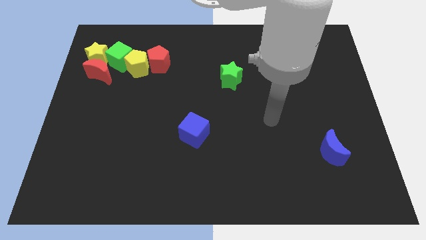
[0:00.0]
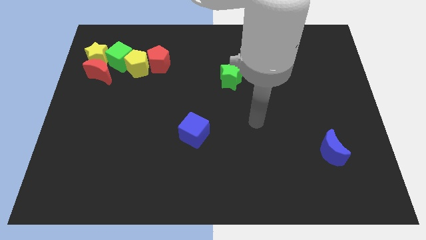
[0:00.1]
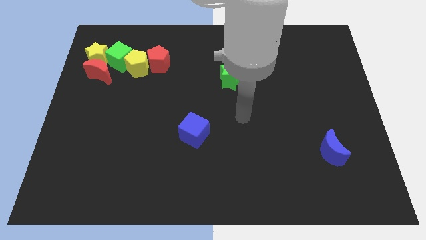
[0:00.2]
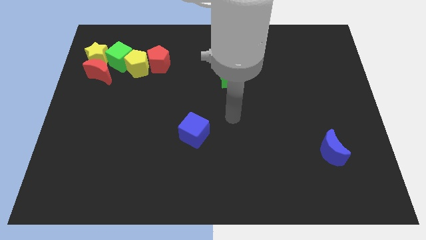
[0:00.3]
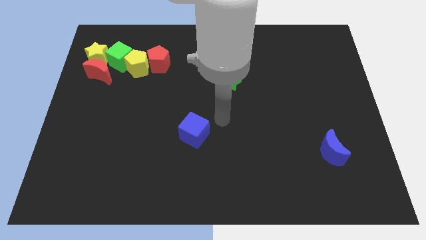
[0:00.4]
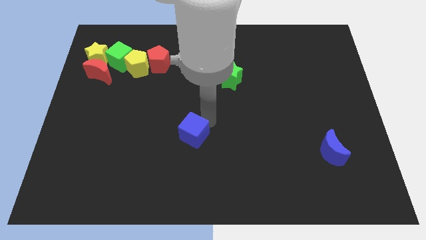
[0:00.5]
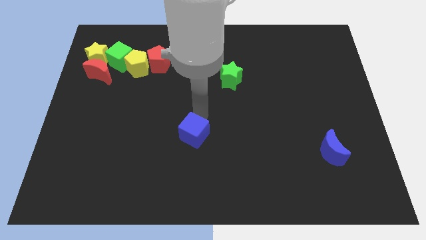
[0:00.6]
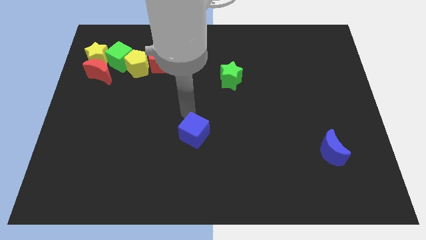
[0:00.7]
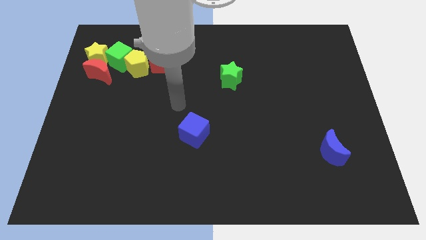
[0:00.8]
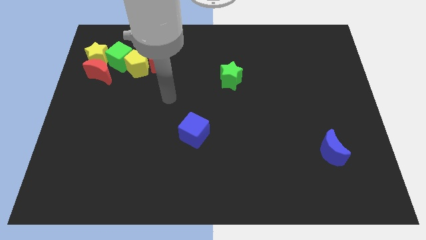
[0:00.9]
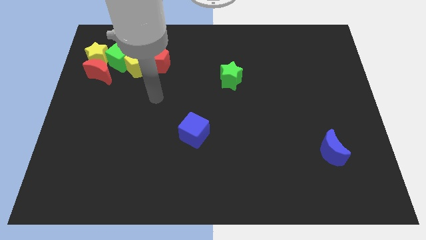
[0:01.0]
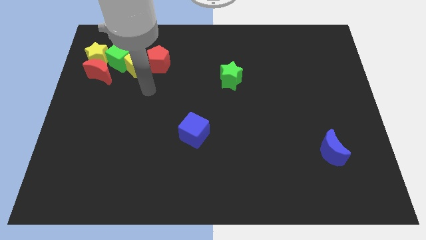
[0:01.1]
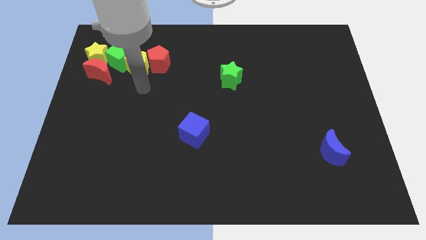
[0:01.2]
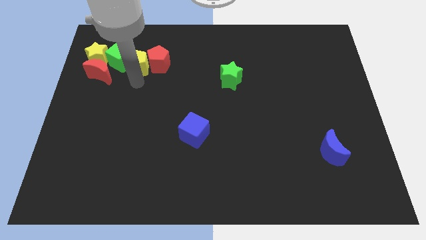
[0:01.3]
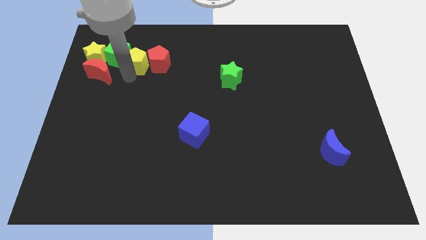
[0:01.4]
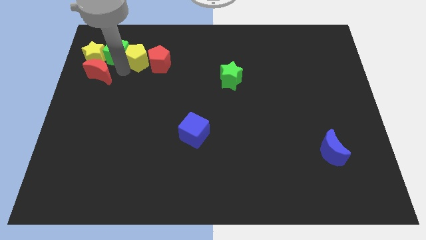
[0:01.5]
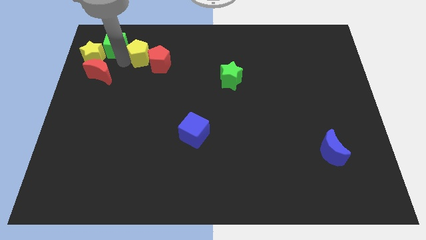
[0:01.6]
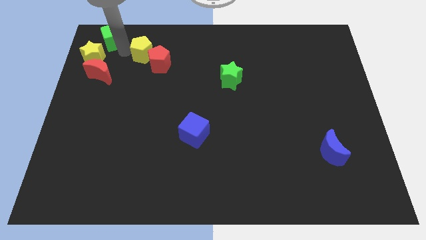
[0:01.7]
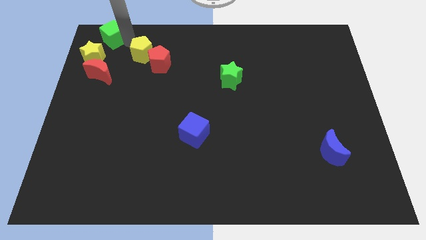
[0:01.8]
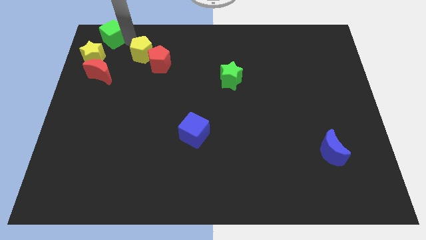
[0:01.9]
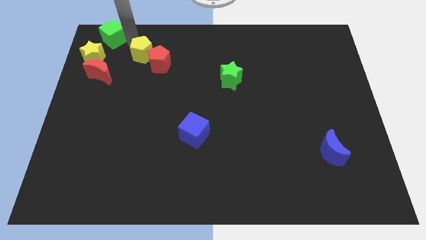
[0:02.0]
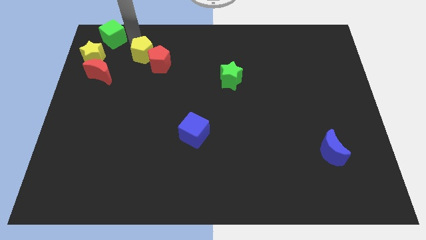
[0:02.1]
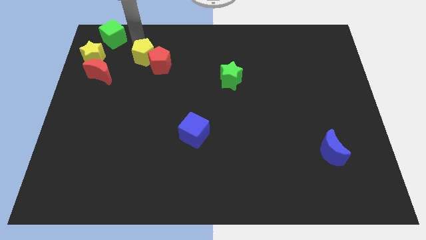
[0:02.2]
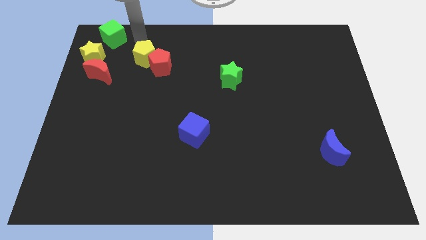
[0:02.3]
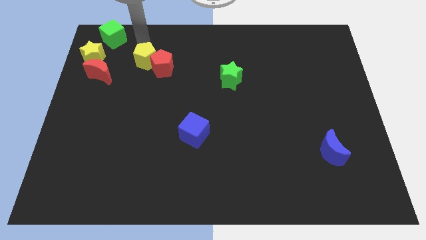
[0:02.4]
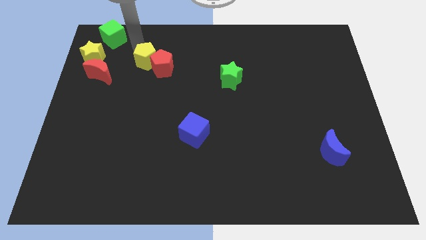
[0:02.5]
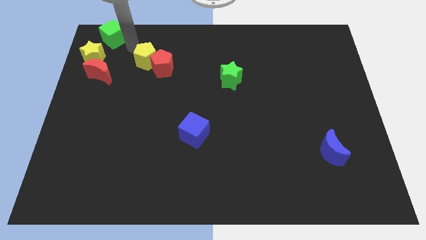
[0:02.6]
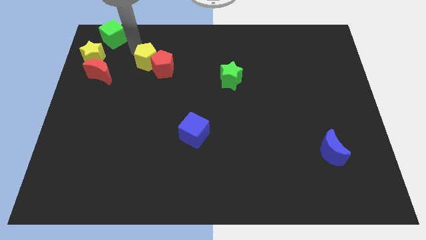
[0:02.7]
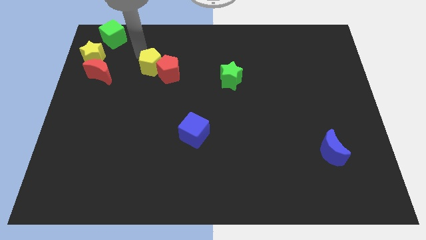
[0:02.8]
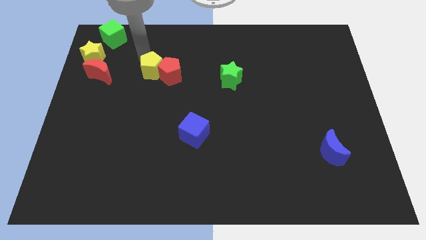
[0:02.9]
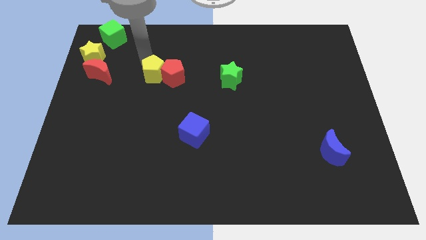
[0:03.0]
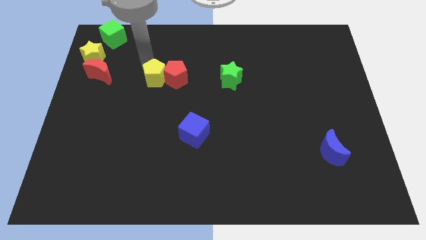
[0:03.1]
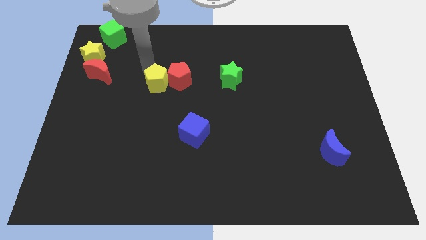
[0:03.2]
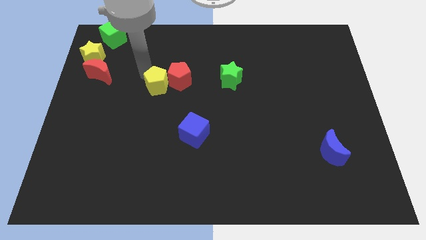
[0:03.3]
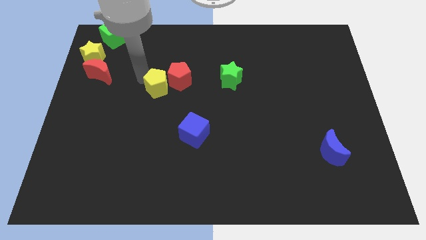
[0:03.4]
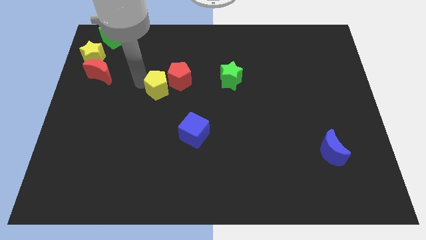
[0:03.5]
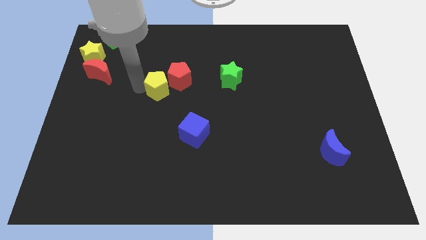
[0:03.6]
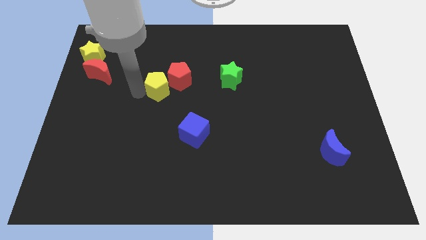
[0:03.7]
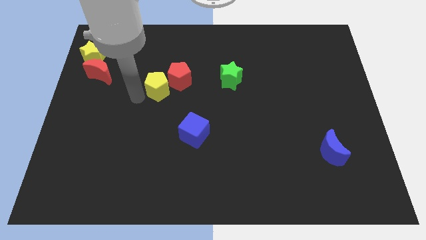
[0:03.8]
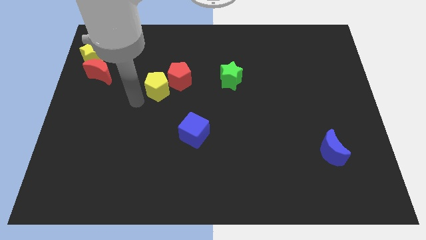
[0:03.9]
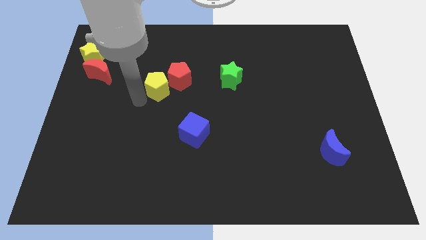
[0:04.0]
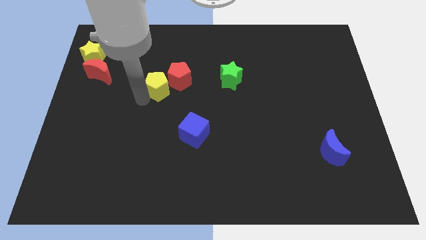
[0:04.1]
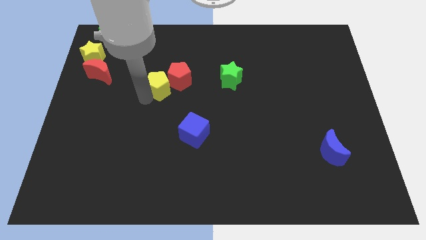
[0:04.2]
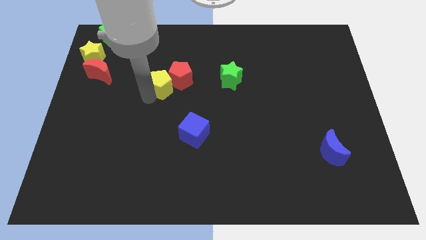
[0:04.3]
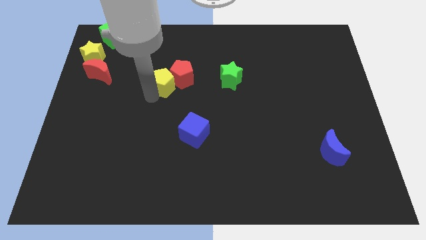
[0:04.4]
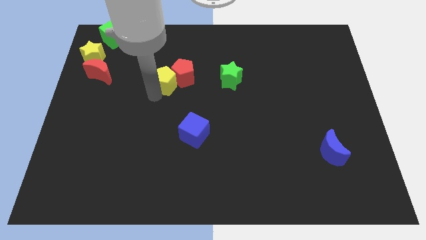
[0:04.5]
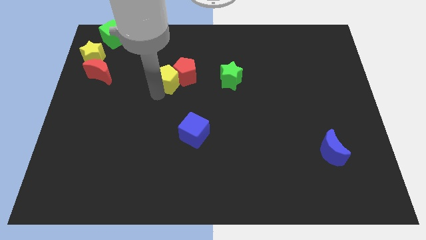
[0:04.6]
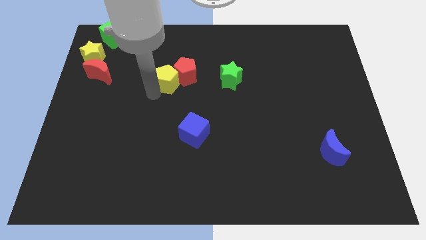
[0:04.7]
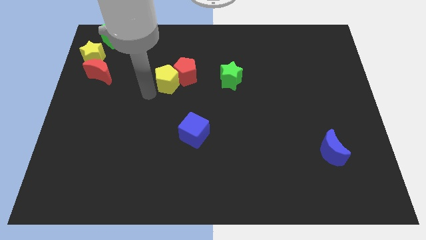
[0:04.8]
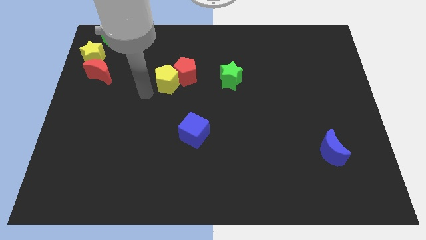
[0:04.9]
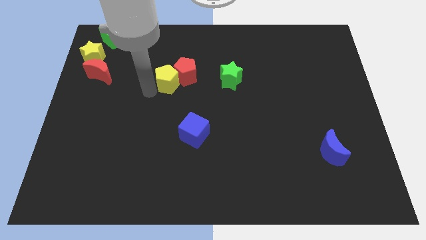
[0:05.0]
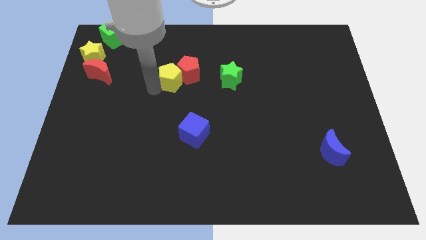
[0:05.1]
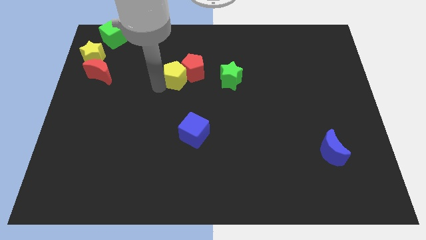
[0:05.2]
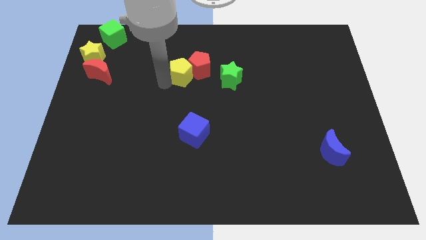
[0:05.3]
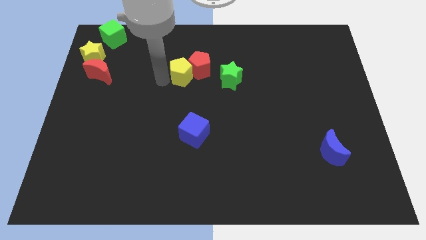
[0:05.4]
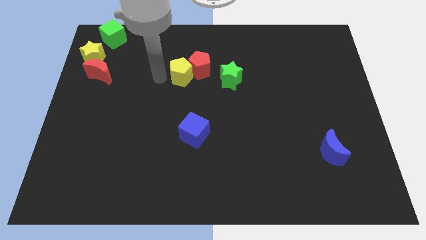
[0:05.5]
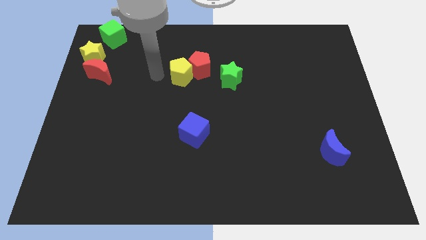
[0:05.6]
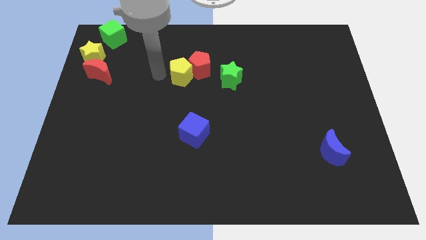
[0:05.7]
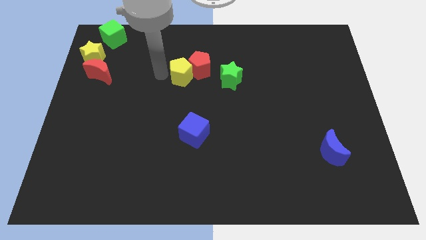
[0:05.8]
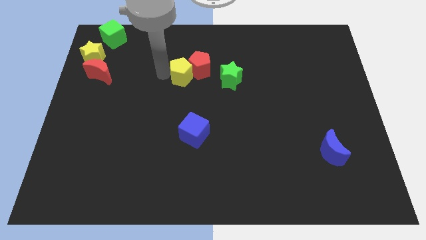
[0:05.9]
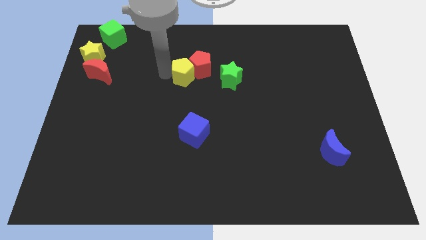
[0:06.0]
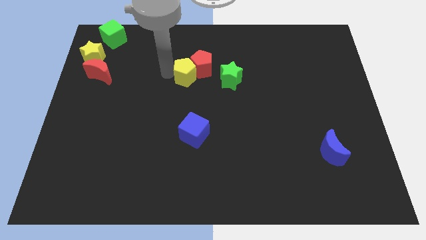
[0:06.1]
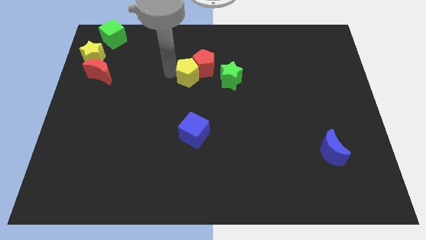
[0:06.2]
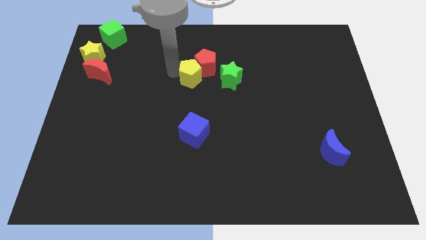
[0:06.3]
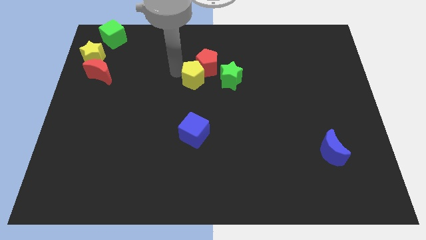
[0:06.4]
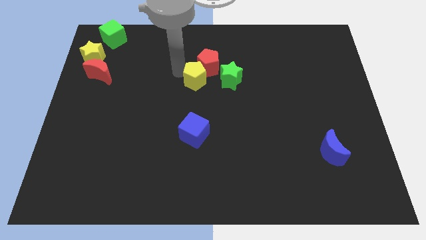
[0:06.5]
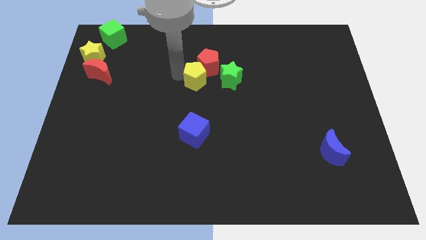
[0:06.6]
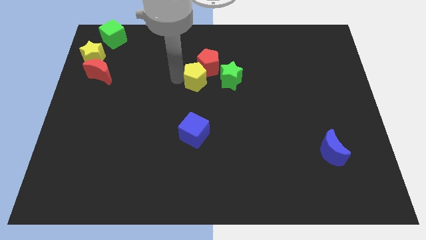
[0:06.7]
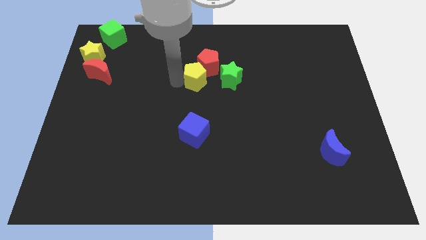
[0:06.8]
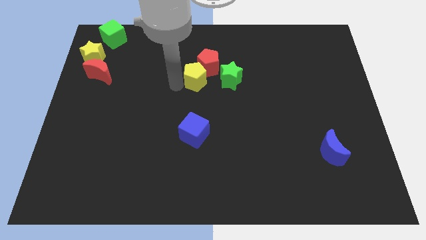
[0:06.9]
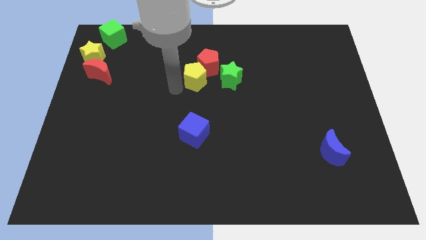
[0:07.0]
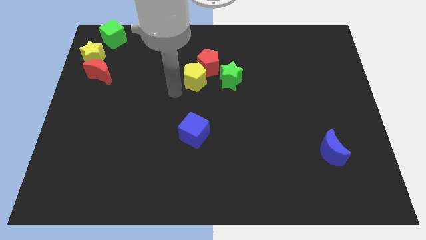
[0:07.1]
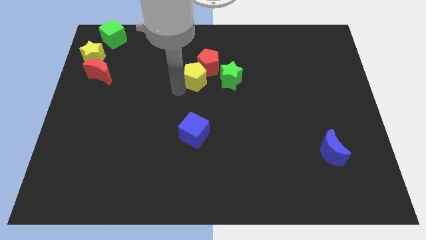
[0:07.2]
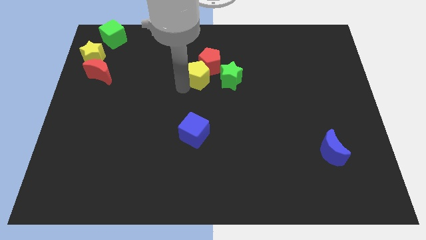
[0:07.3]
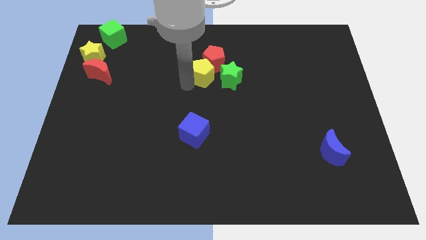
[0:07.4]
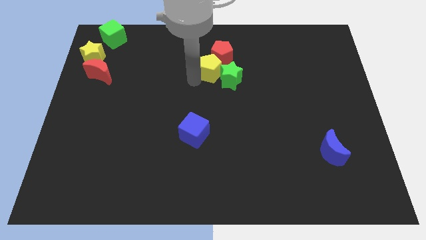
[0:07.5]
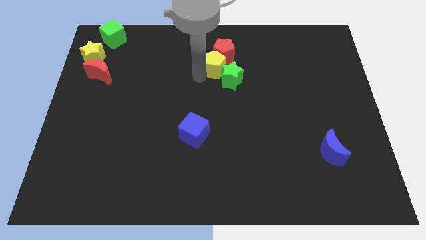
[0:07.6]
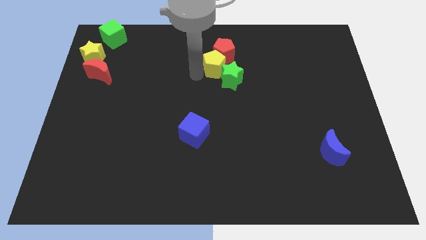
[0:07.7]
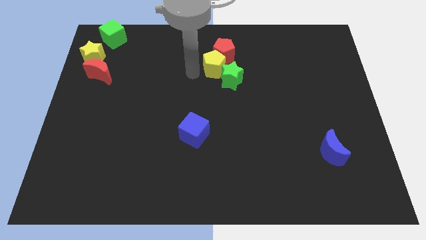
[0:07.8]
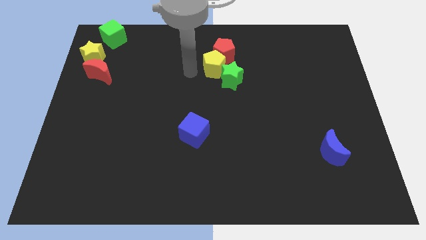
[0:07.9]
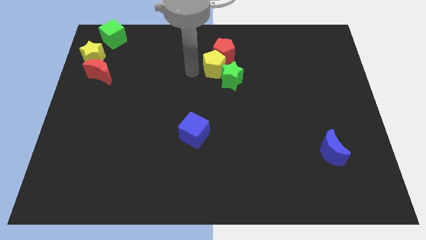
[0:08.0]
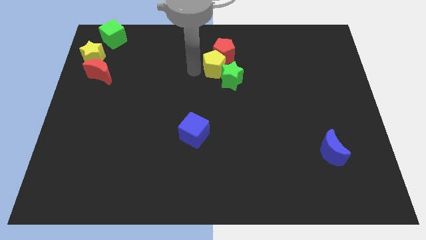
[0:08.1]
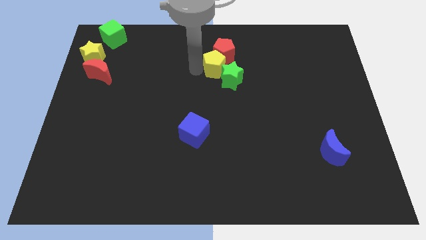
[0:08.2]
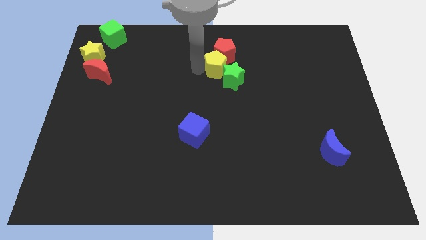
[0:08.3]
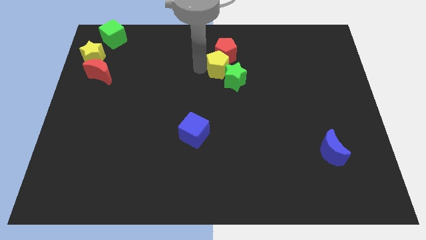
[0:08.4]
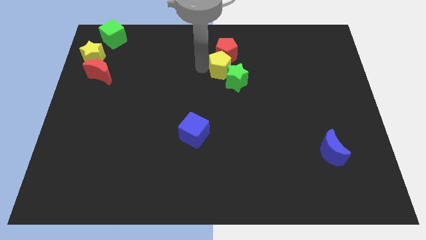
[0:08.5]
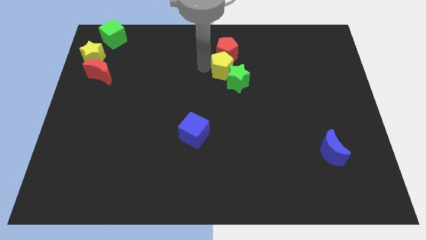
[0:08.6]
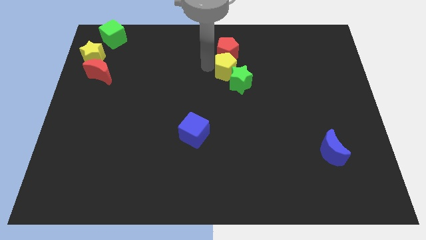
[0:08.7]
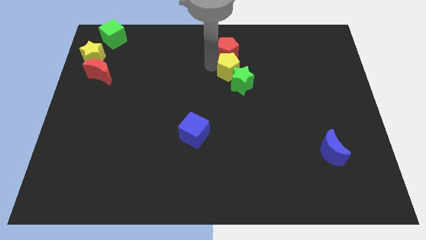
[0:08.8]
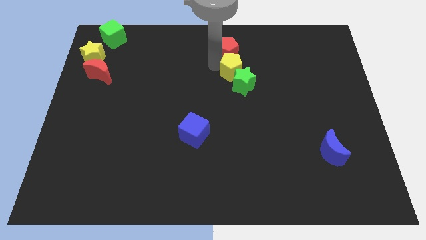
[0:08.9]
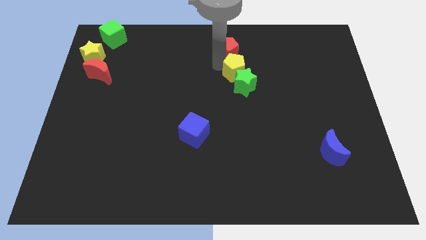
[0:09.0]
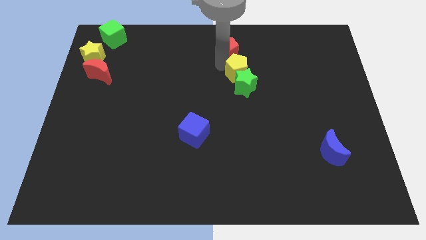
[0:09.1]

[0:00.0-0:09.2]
put the yellow pentagon to the top right side of the green star
